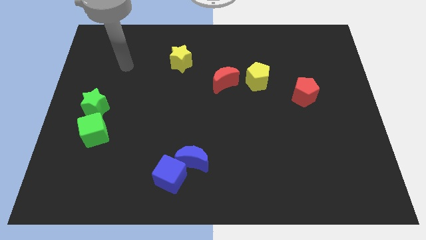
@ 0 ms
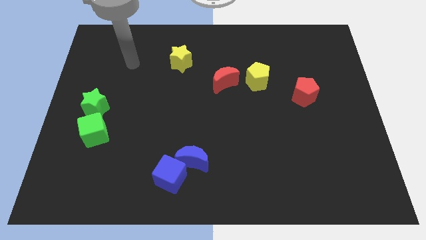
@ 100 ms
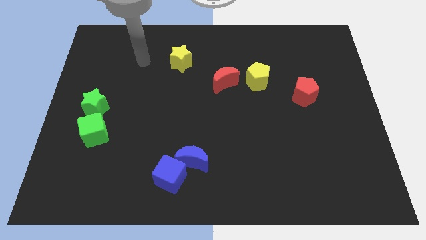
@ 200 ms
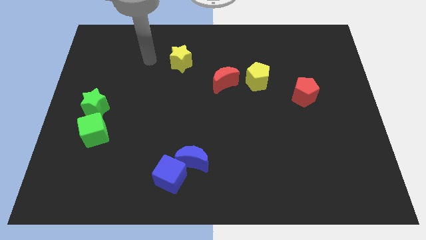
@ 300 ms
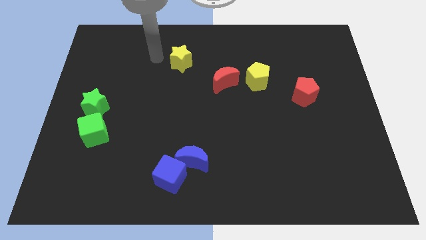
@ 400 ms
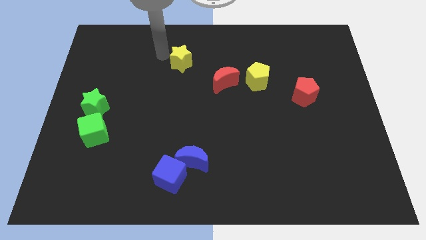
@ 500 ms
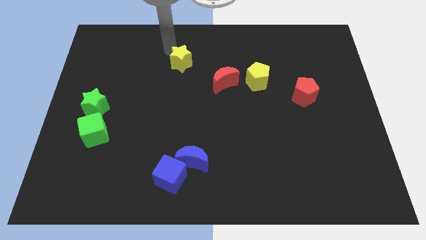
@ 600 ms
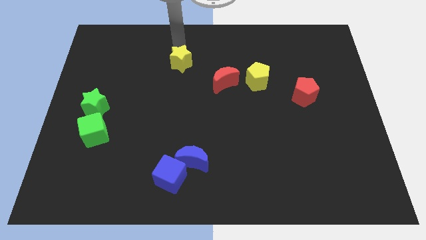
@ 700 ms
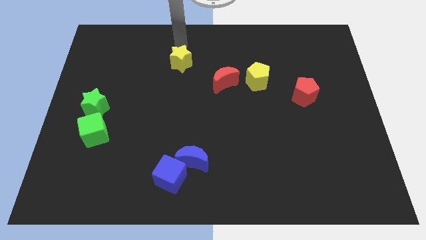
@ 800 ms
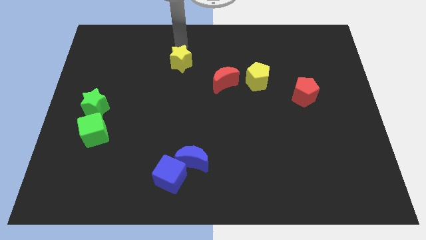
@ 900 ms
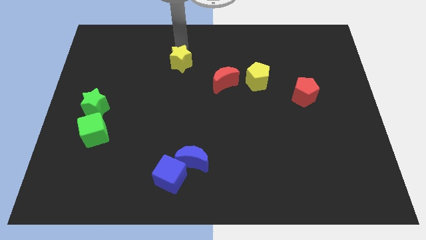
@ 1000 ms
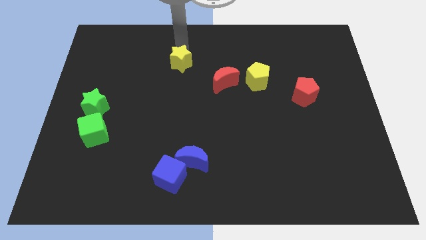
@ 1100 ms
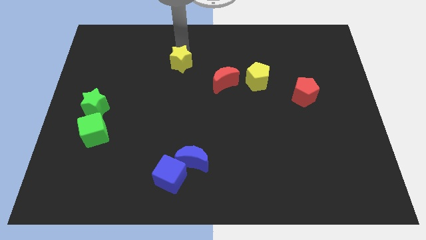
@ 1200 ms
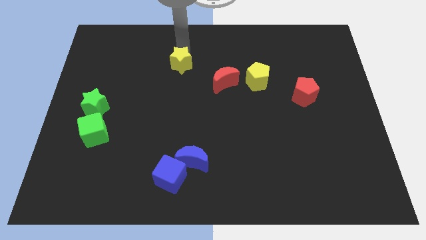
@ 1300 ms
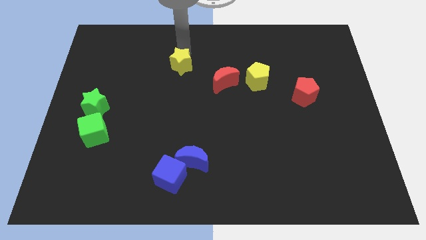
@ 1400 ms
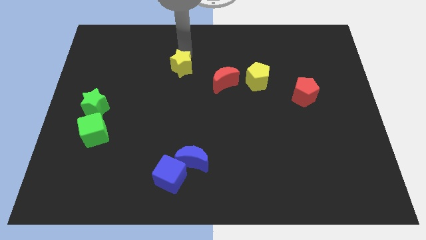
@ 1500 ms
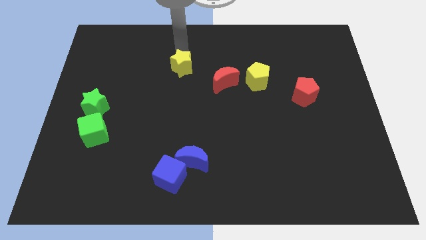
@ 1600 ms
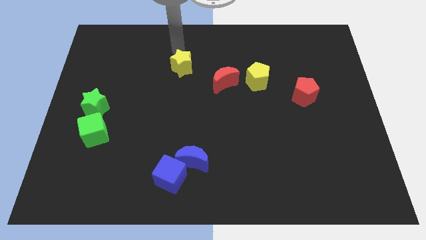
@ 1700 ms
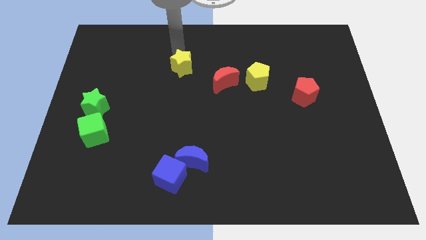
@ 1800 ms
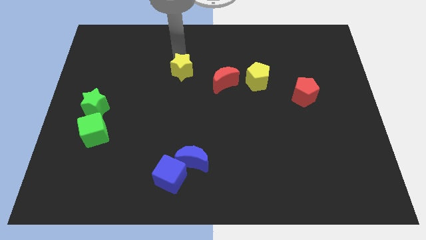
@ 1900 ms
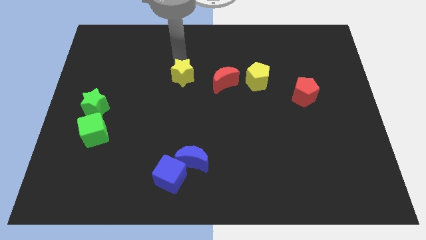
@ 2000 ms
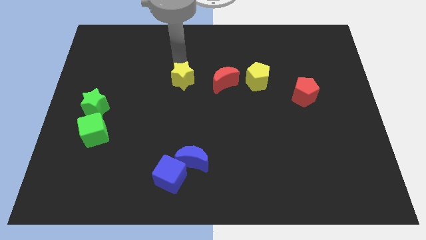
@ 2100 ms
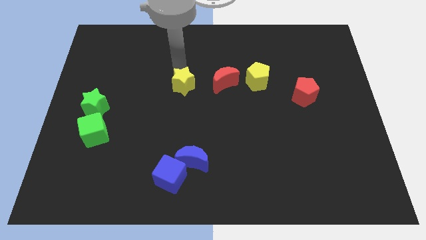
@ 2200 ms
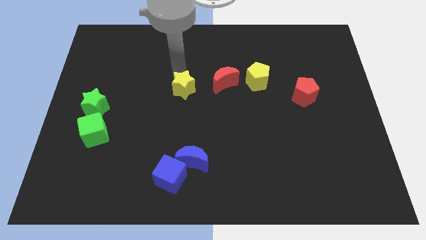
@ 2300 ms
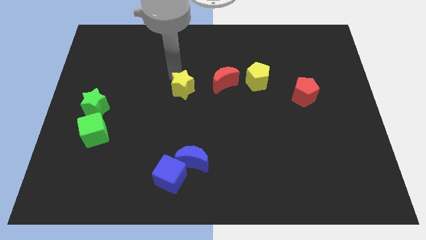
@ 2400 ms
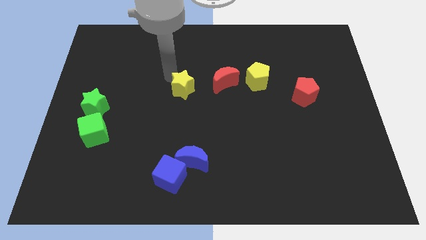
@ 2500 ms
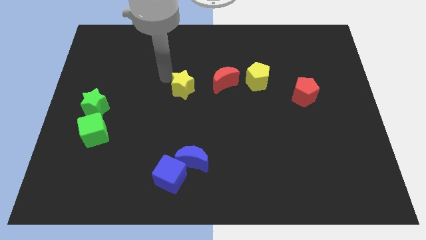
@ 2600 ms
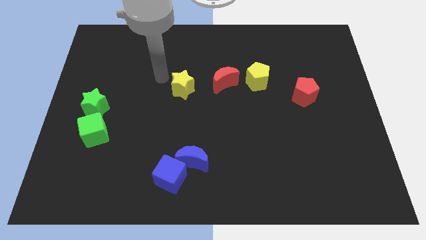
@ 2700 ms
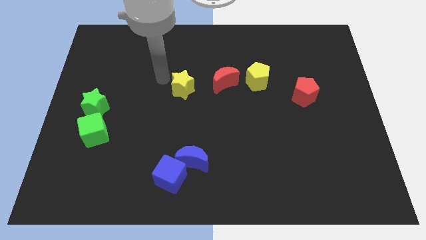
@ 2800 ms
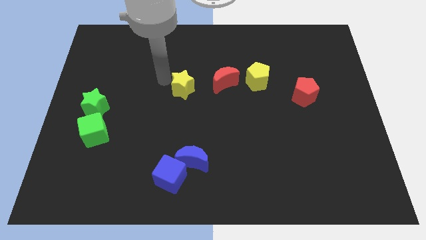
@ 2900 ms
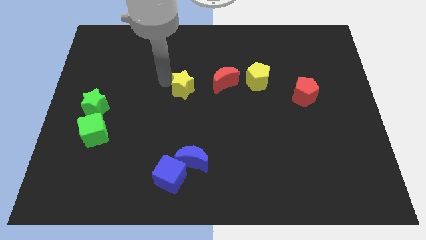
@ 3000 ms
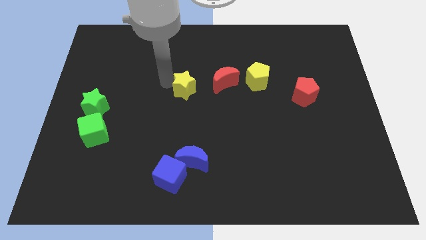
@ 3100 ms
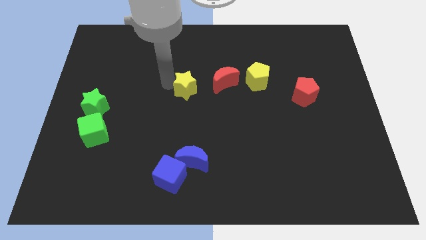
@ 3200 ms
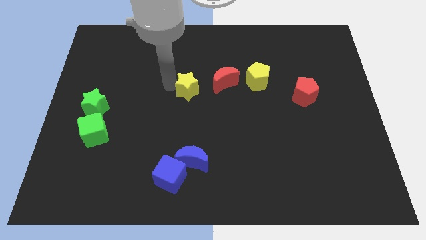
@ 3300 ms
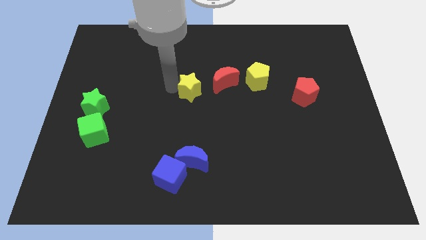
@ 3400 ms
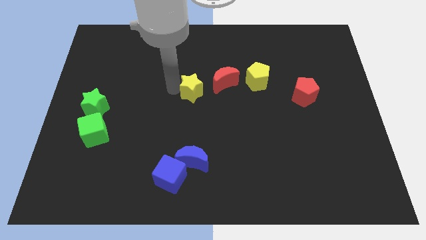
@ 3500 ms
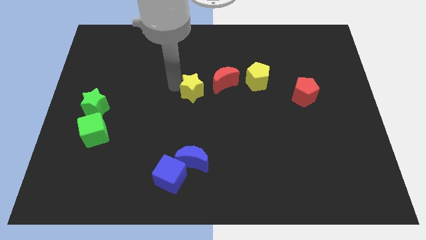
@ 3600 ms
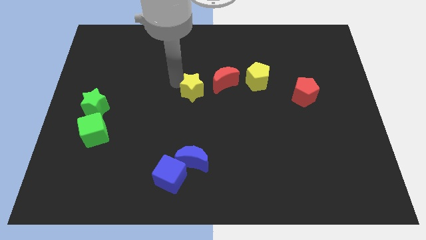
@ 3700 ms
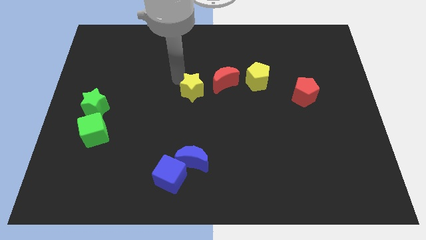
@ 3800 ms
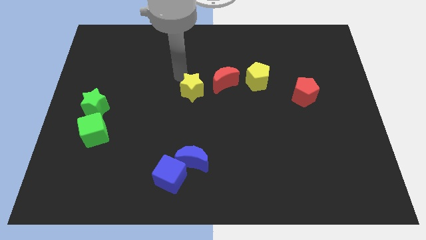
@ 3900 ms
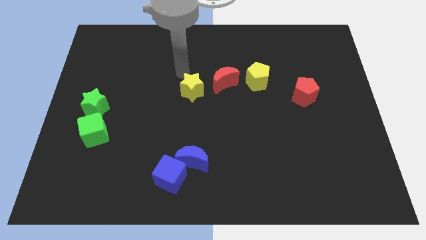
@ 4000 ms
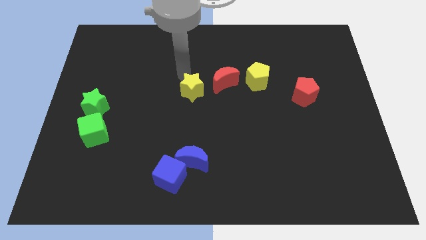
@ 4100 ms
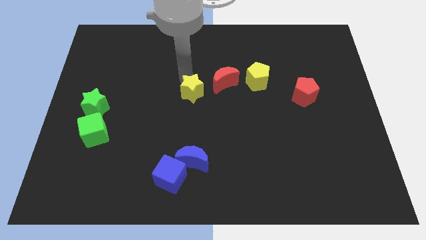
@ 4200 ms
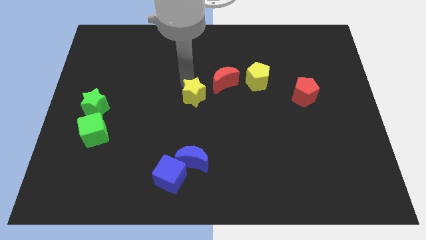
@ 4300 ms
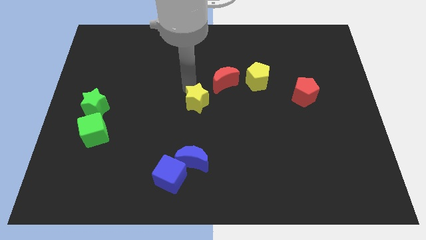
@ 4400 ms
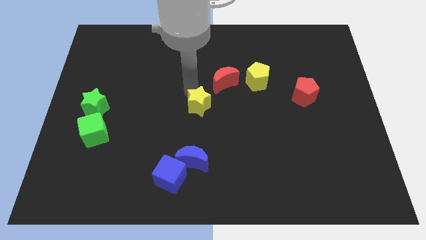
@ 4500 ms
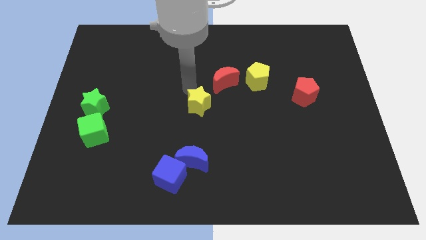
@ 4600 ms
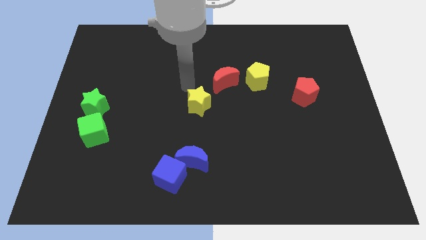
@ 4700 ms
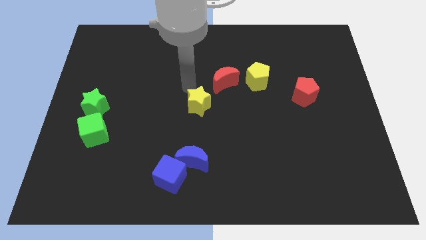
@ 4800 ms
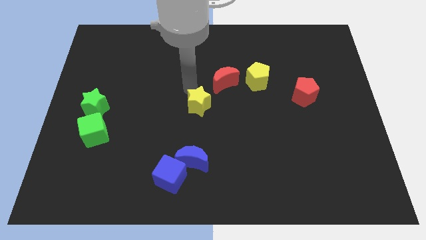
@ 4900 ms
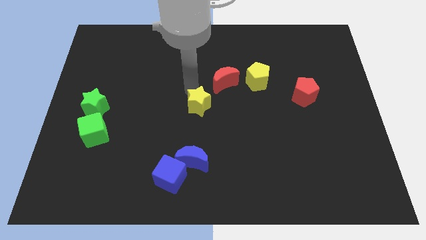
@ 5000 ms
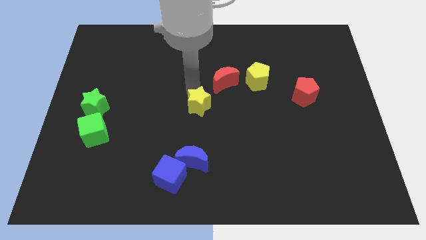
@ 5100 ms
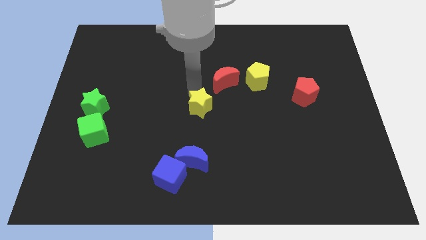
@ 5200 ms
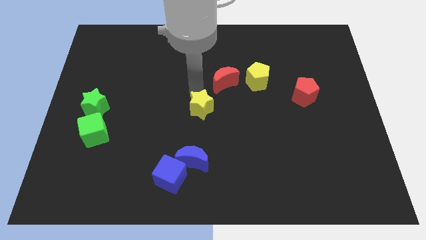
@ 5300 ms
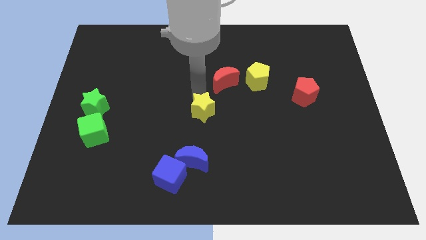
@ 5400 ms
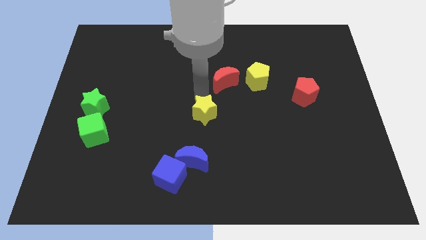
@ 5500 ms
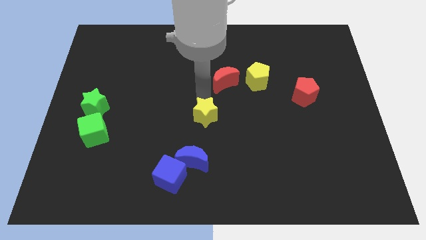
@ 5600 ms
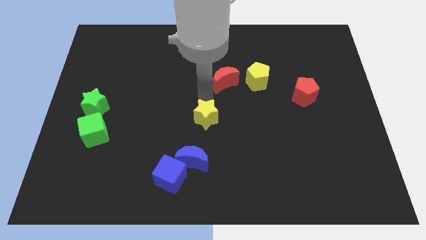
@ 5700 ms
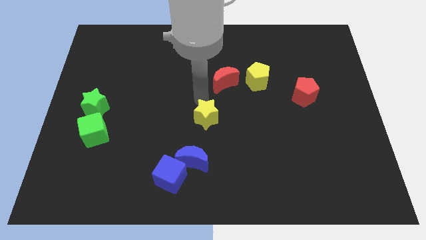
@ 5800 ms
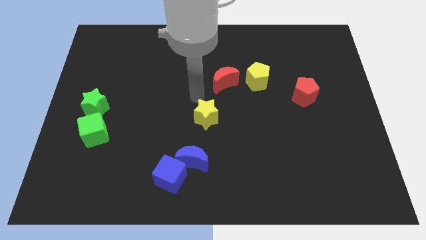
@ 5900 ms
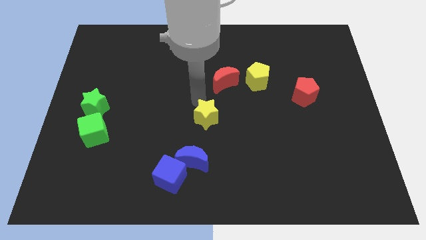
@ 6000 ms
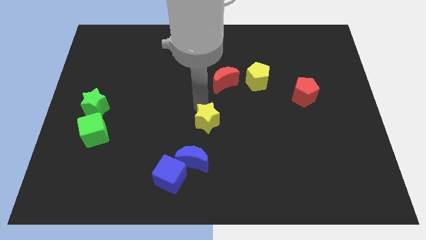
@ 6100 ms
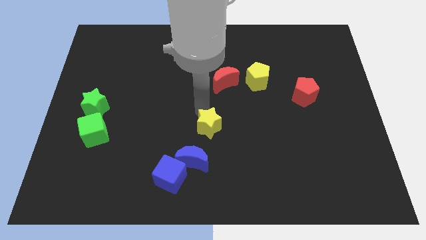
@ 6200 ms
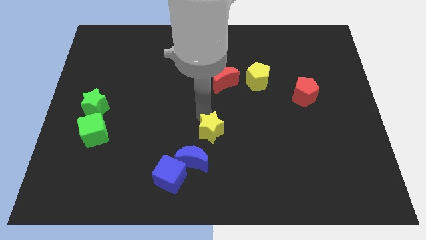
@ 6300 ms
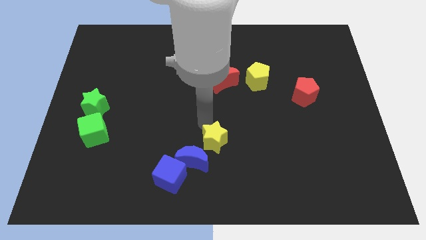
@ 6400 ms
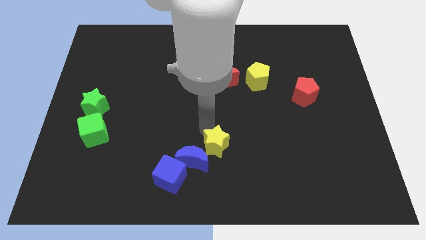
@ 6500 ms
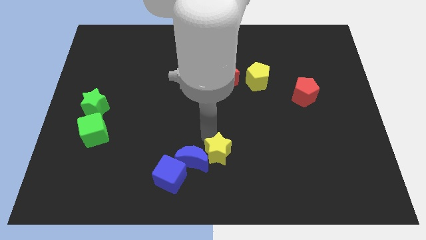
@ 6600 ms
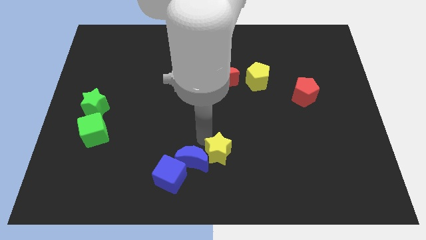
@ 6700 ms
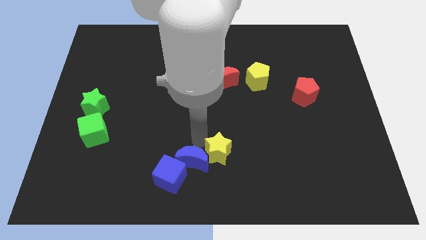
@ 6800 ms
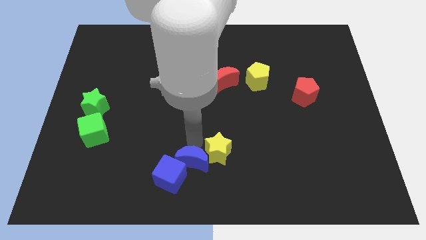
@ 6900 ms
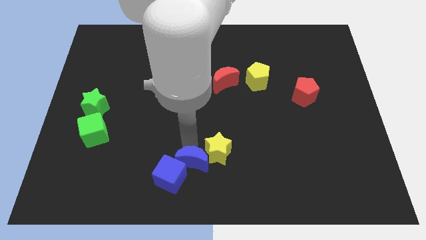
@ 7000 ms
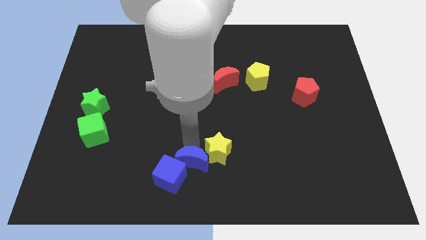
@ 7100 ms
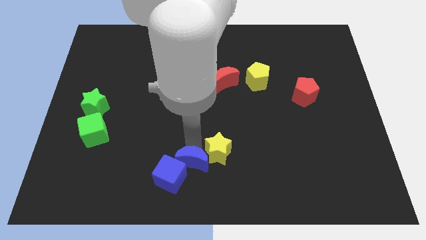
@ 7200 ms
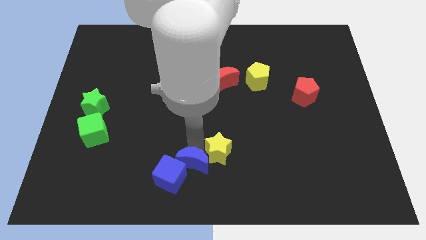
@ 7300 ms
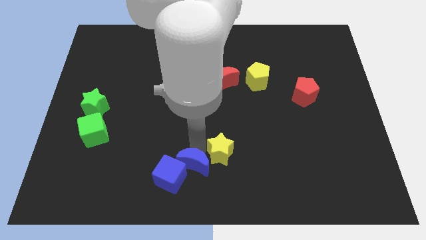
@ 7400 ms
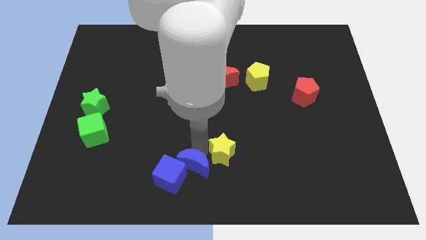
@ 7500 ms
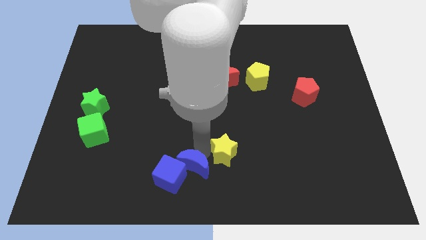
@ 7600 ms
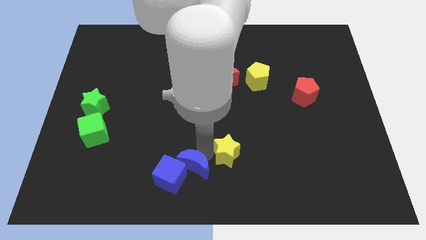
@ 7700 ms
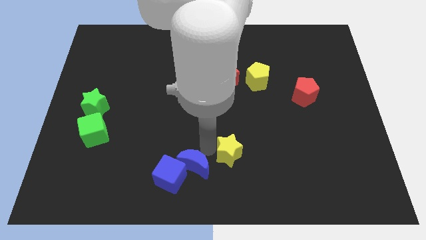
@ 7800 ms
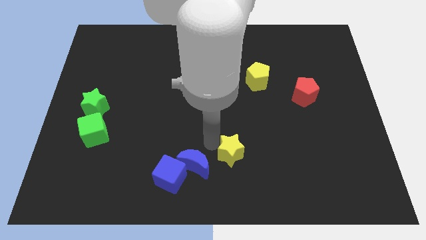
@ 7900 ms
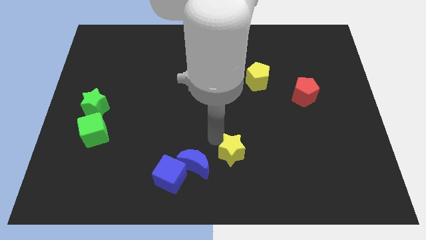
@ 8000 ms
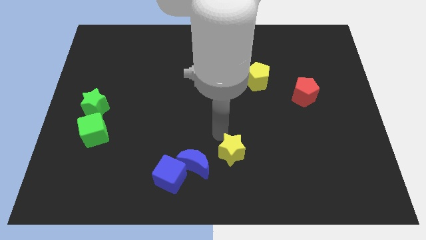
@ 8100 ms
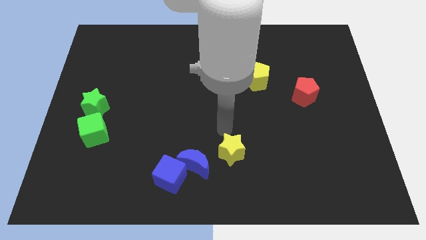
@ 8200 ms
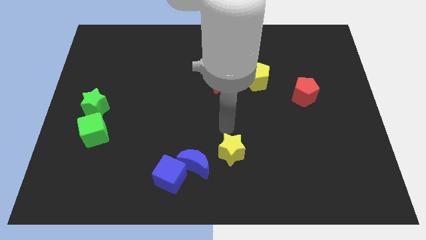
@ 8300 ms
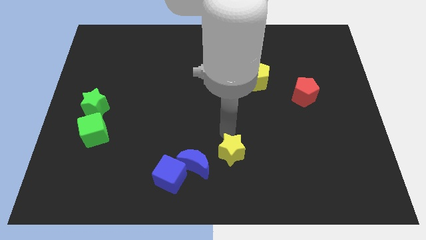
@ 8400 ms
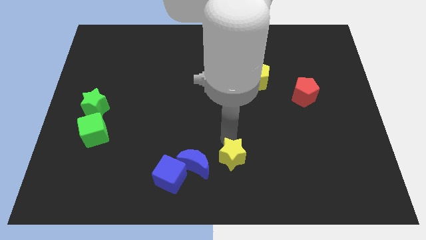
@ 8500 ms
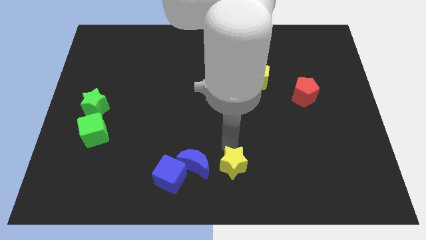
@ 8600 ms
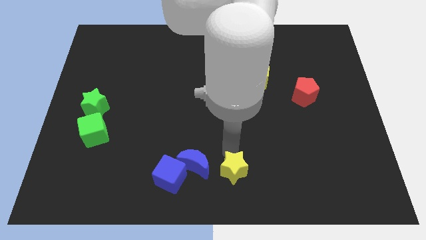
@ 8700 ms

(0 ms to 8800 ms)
slide the yellow star to the bottom right of the blue moon
